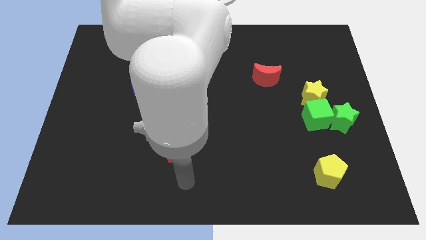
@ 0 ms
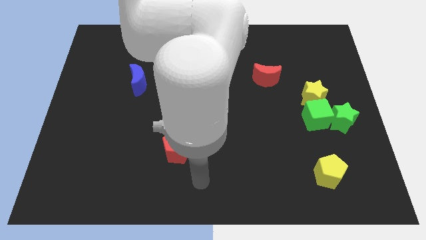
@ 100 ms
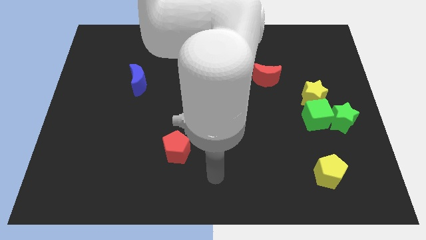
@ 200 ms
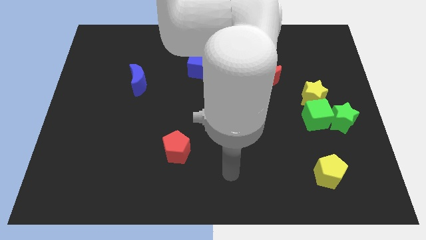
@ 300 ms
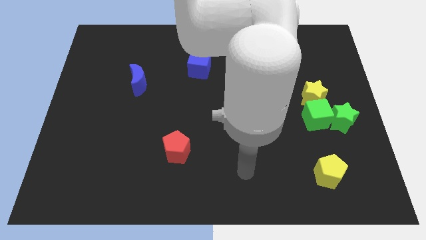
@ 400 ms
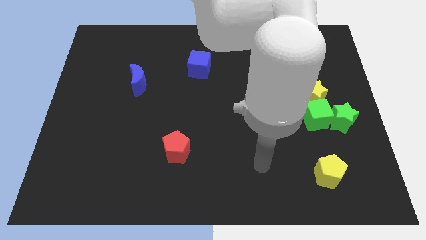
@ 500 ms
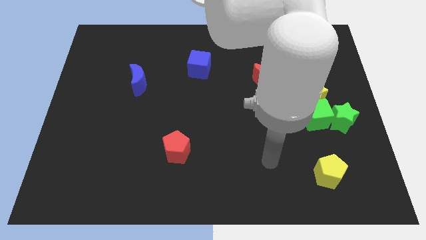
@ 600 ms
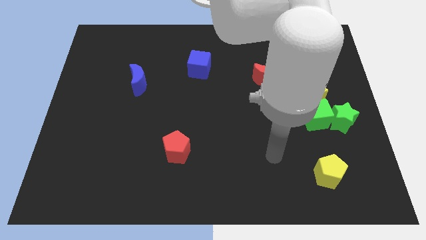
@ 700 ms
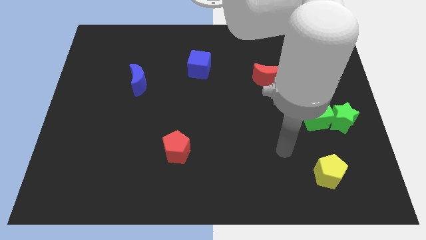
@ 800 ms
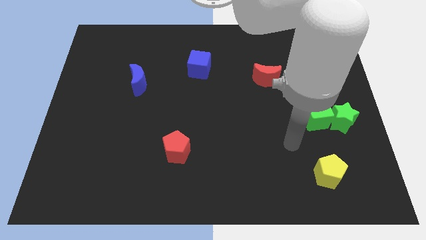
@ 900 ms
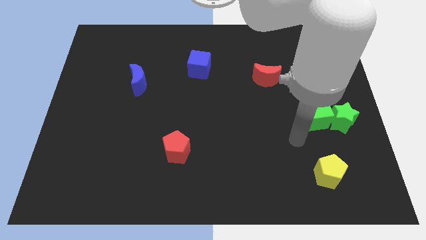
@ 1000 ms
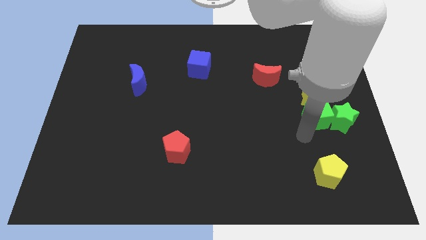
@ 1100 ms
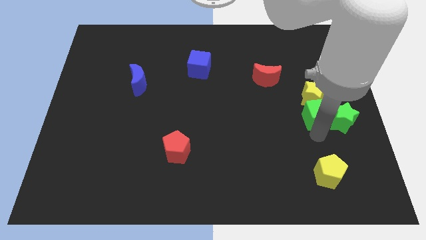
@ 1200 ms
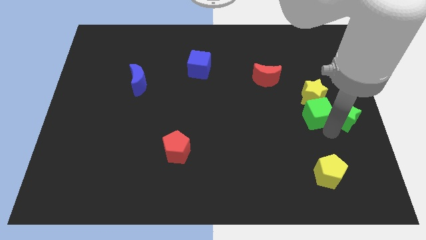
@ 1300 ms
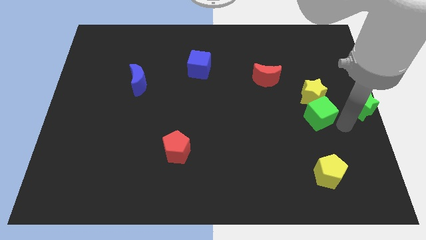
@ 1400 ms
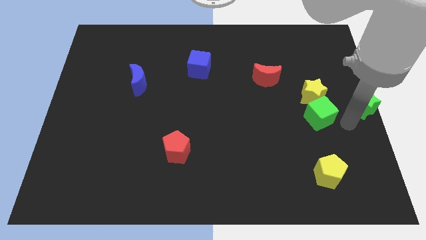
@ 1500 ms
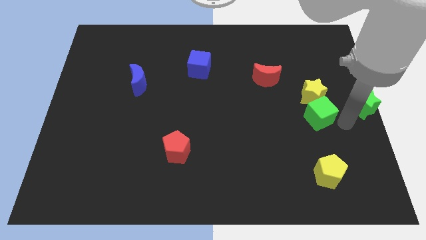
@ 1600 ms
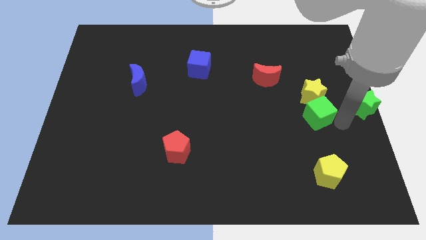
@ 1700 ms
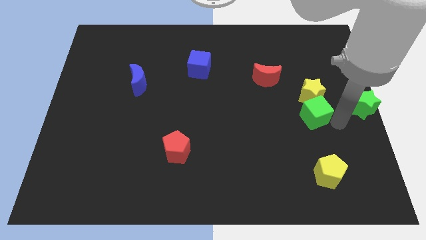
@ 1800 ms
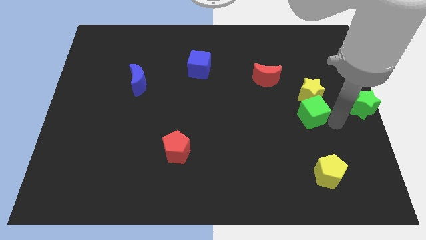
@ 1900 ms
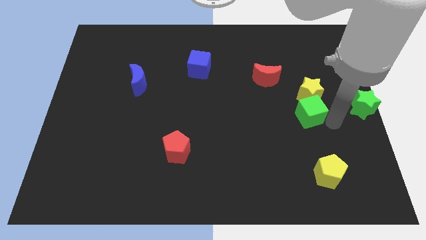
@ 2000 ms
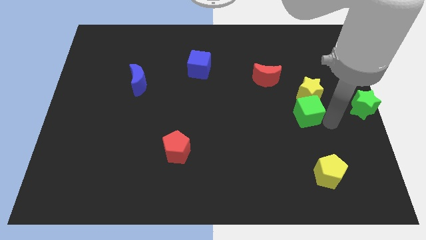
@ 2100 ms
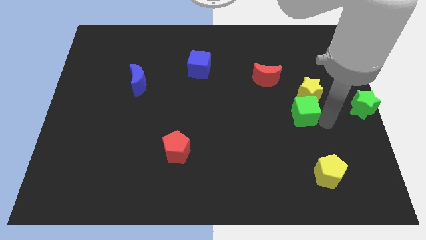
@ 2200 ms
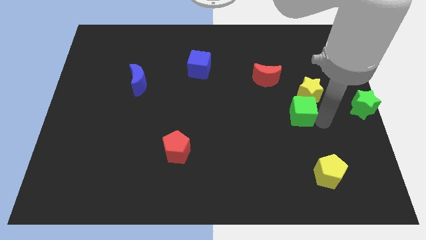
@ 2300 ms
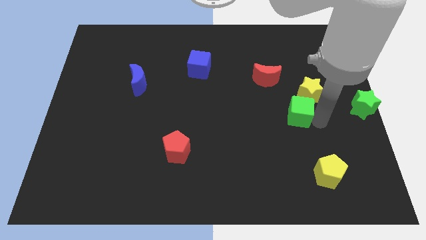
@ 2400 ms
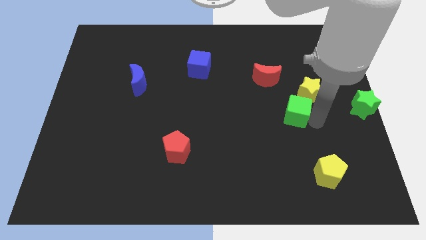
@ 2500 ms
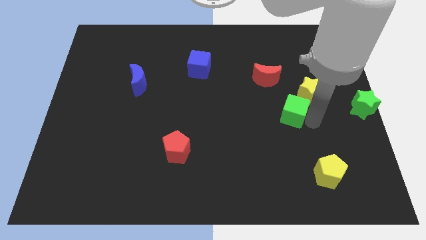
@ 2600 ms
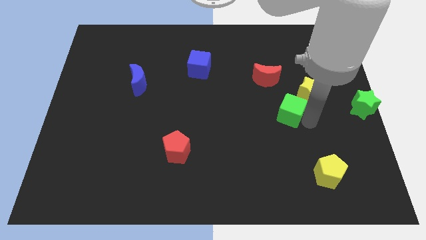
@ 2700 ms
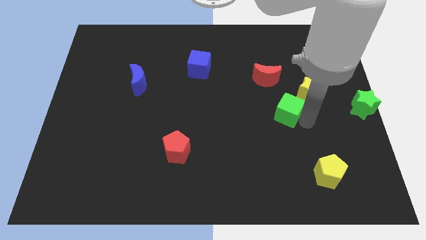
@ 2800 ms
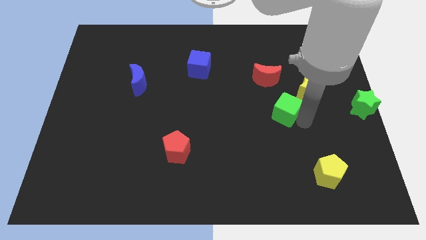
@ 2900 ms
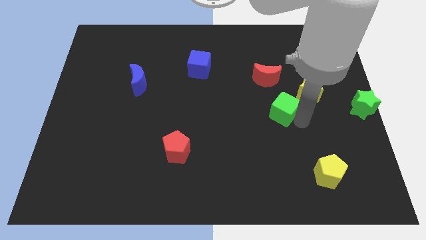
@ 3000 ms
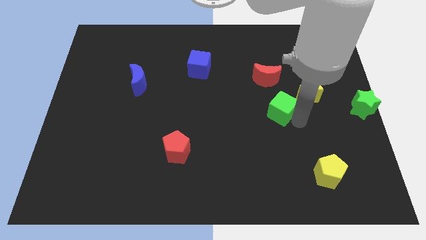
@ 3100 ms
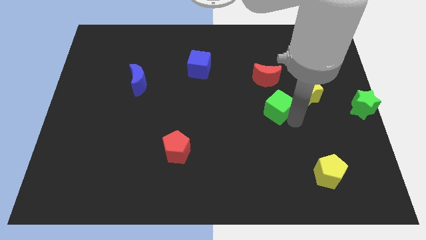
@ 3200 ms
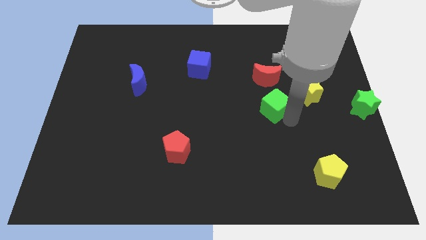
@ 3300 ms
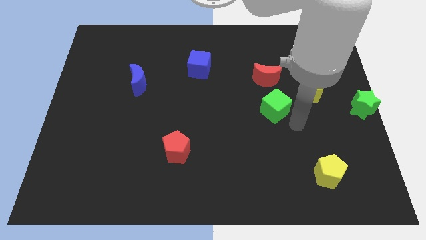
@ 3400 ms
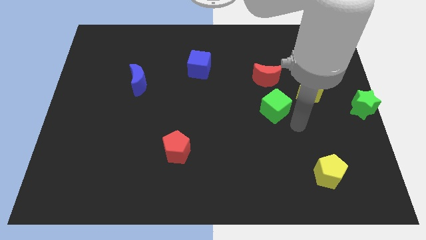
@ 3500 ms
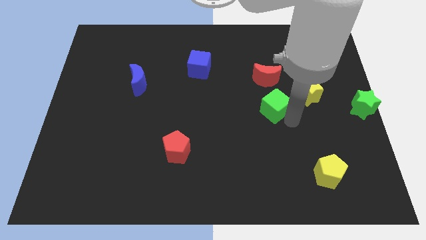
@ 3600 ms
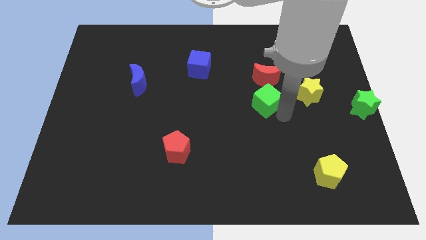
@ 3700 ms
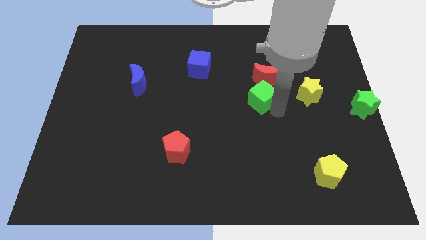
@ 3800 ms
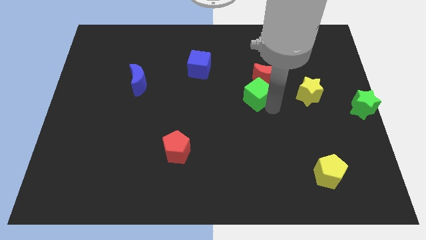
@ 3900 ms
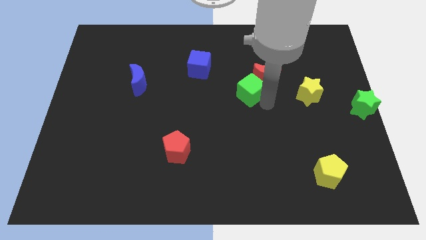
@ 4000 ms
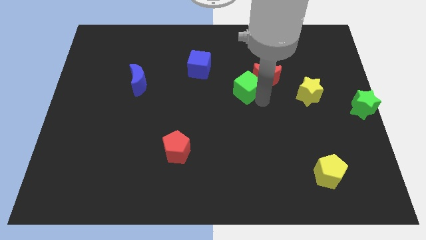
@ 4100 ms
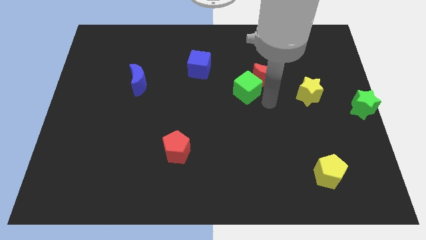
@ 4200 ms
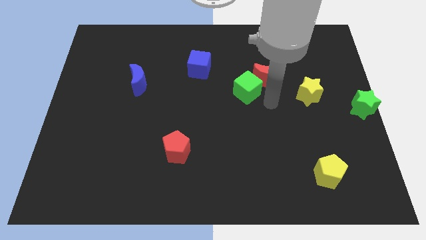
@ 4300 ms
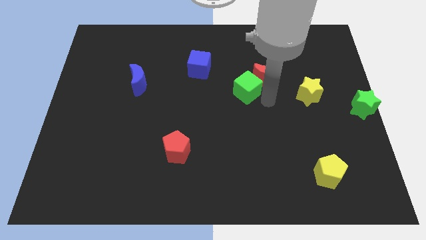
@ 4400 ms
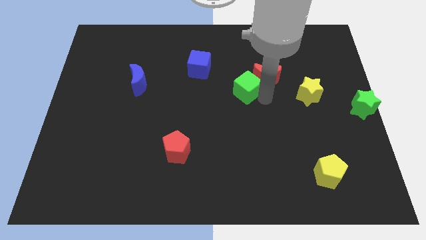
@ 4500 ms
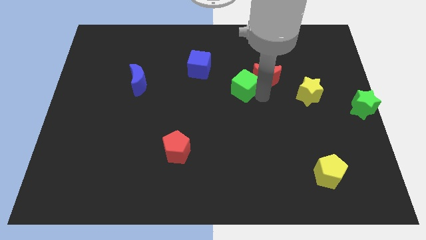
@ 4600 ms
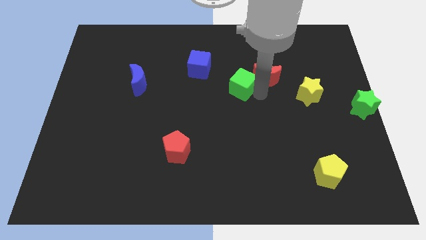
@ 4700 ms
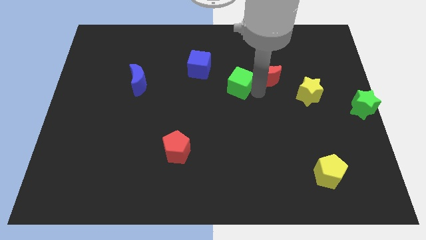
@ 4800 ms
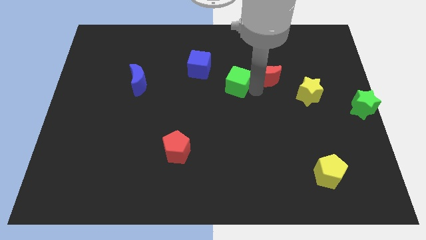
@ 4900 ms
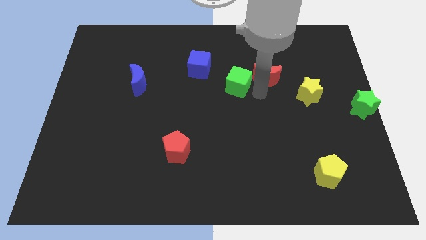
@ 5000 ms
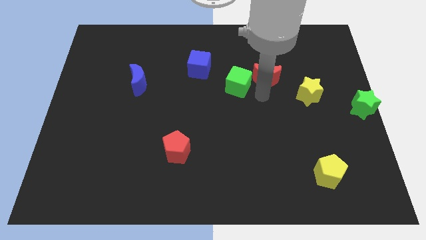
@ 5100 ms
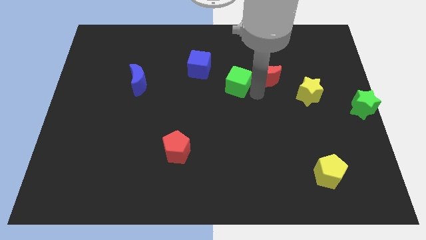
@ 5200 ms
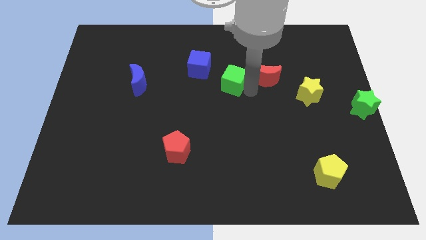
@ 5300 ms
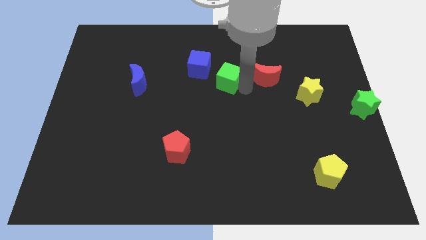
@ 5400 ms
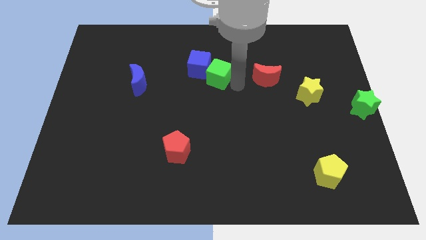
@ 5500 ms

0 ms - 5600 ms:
slide the green cube towards the blue cube

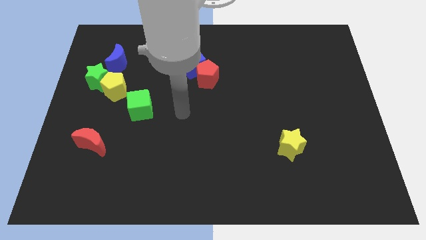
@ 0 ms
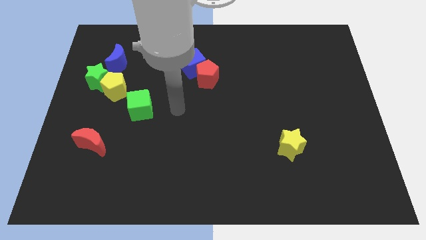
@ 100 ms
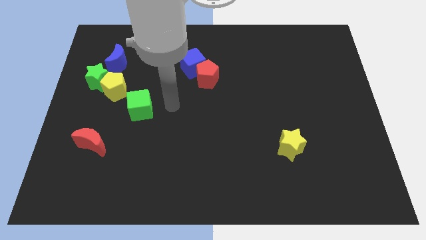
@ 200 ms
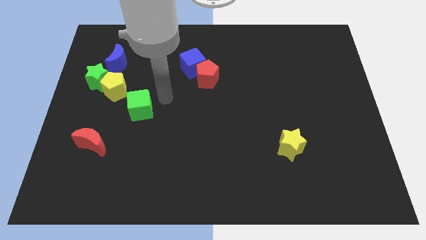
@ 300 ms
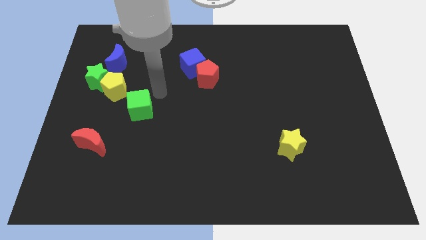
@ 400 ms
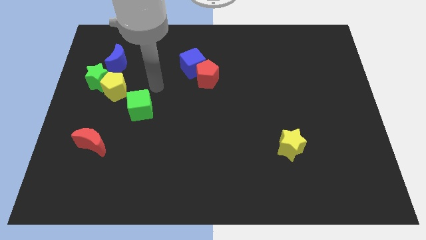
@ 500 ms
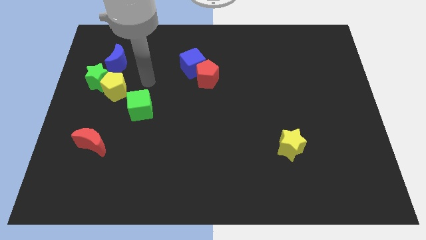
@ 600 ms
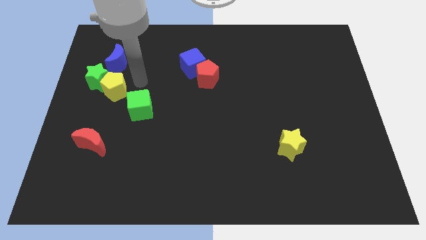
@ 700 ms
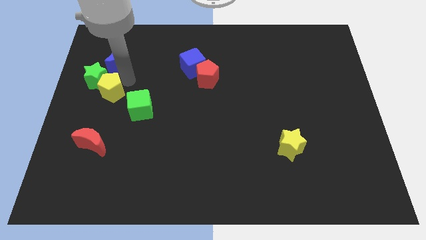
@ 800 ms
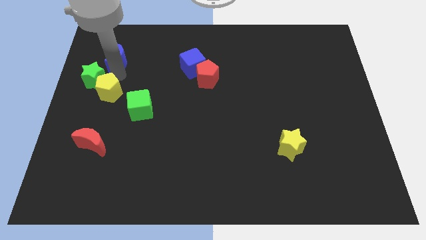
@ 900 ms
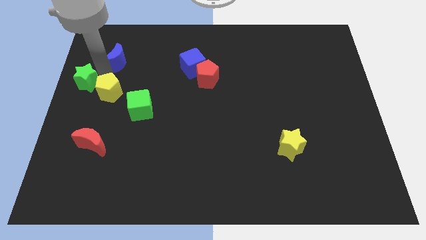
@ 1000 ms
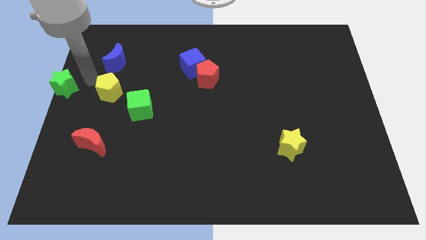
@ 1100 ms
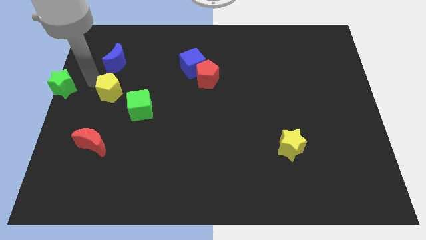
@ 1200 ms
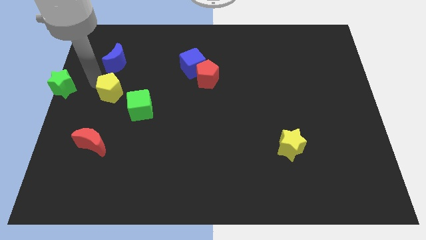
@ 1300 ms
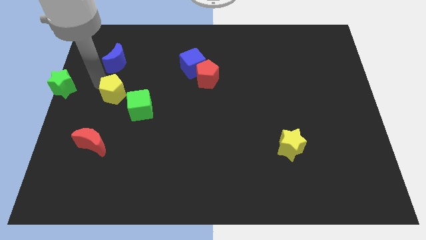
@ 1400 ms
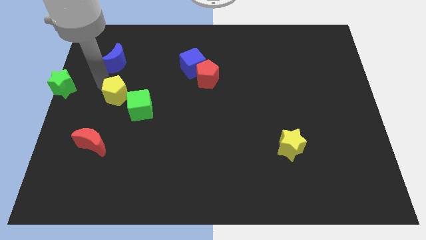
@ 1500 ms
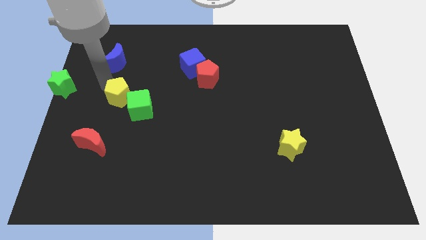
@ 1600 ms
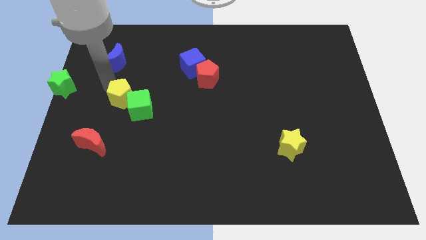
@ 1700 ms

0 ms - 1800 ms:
move the yellow pentagon towards the green cube

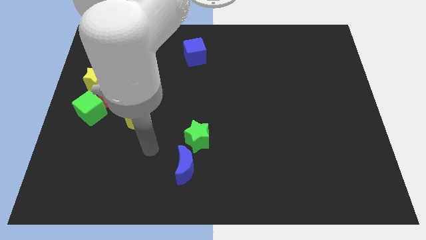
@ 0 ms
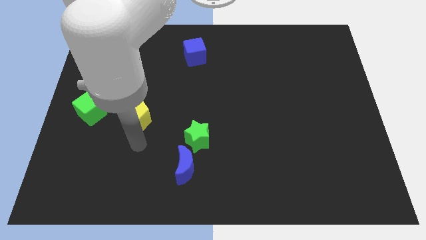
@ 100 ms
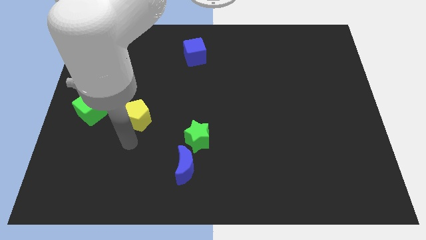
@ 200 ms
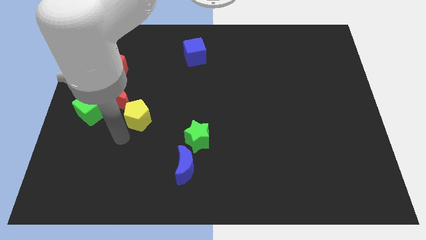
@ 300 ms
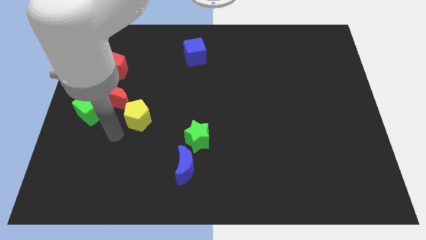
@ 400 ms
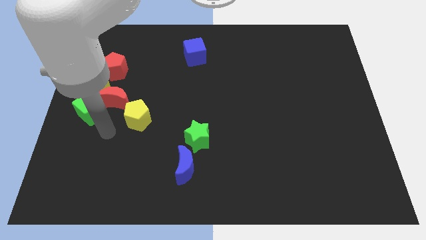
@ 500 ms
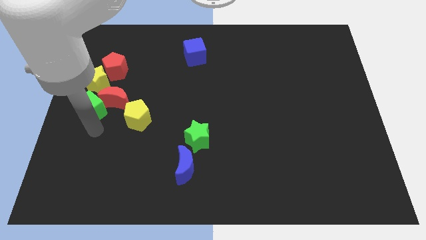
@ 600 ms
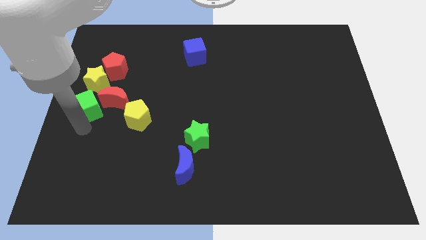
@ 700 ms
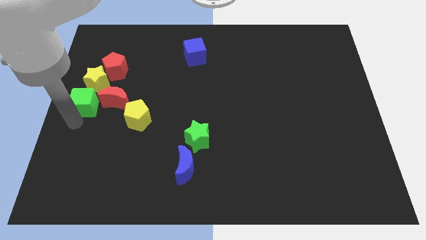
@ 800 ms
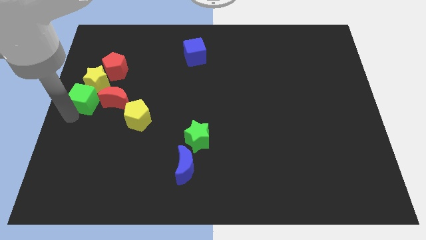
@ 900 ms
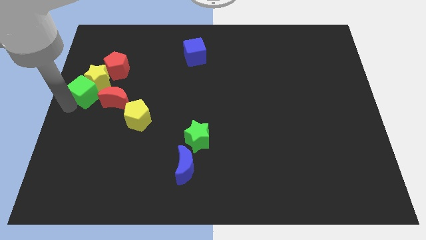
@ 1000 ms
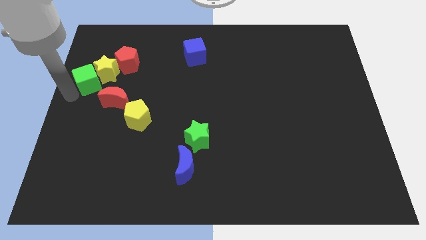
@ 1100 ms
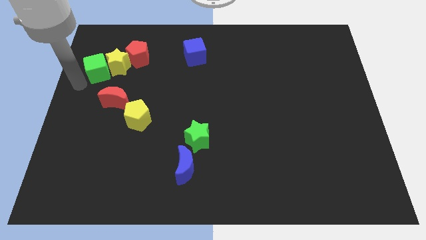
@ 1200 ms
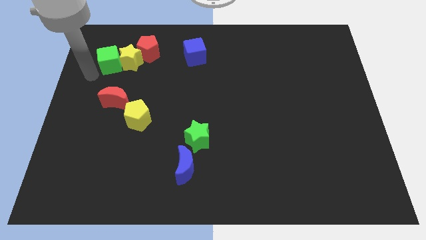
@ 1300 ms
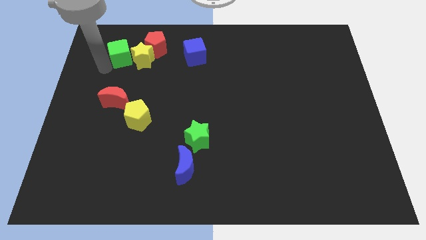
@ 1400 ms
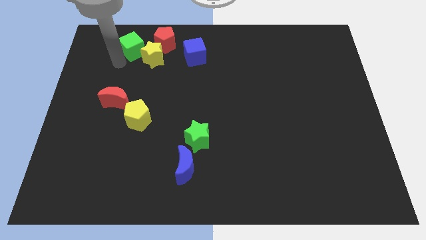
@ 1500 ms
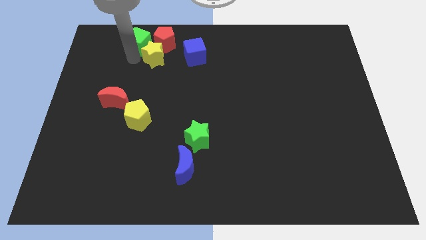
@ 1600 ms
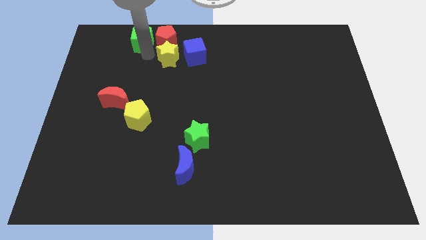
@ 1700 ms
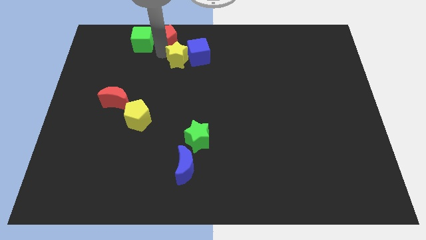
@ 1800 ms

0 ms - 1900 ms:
put the yellow star towards the blue cube
